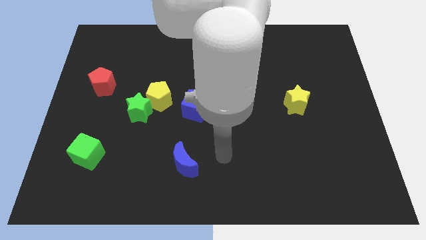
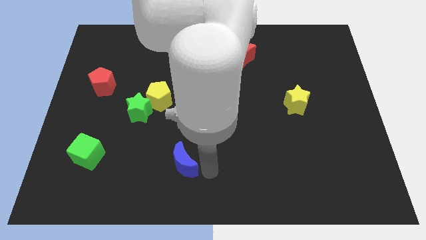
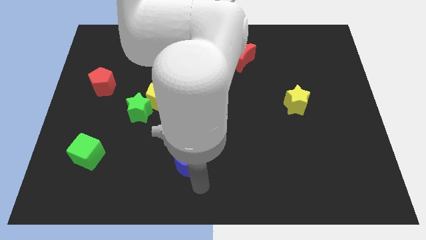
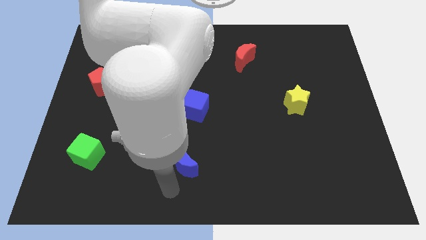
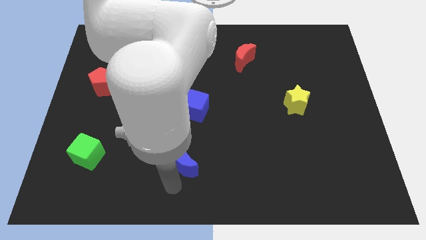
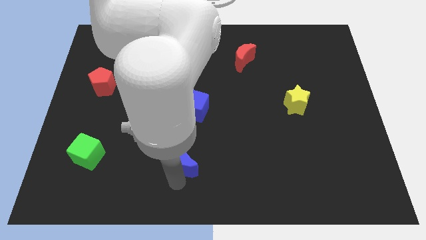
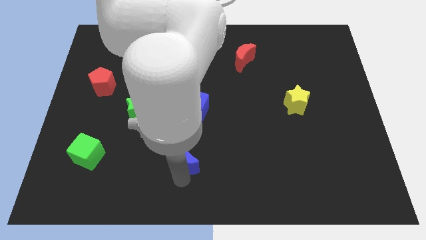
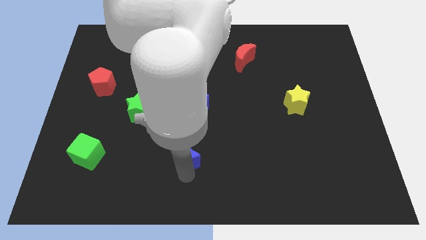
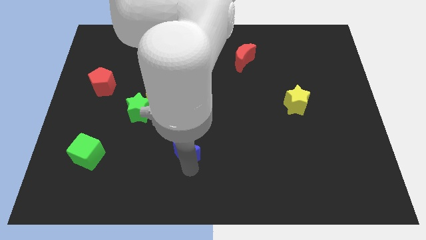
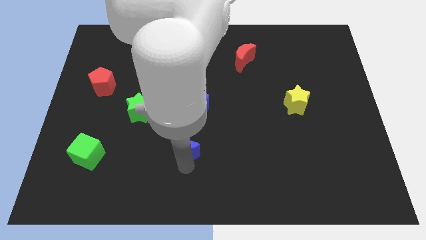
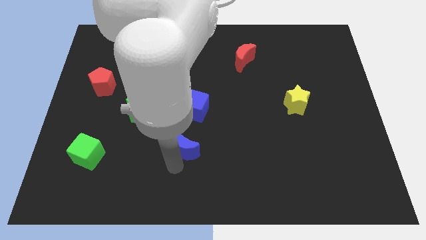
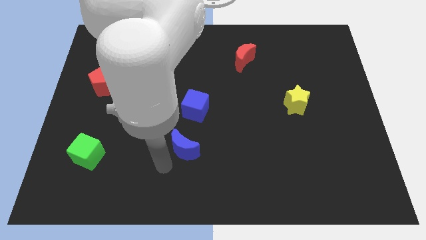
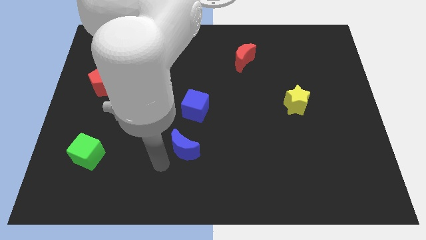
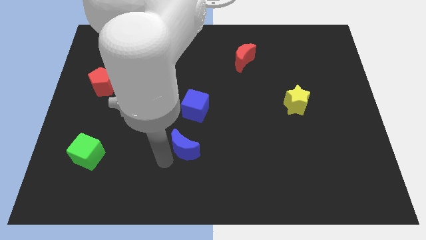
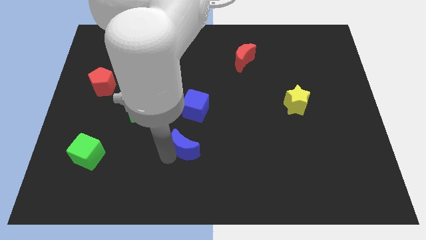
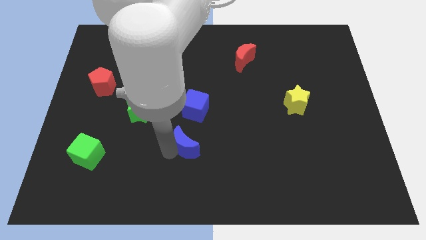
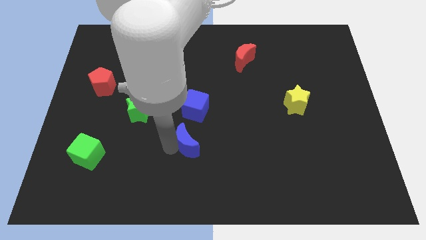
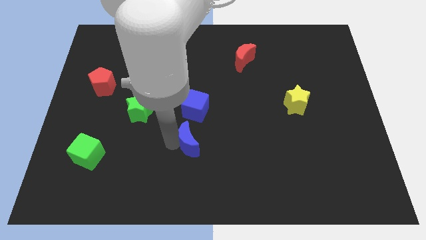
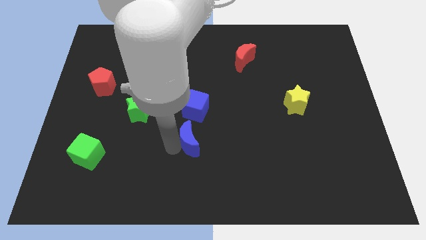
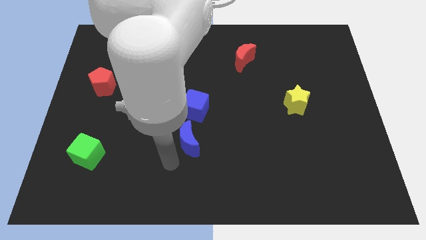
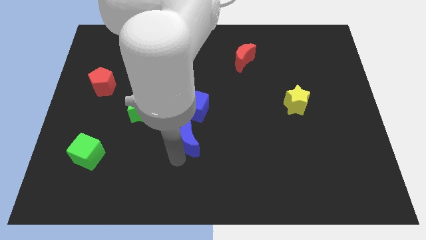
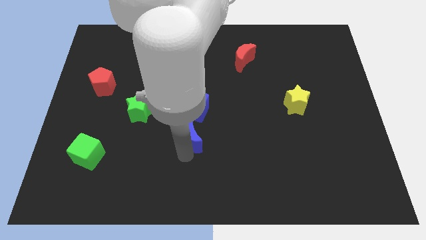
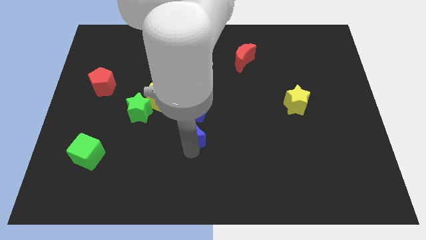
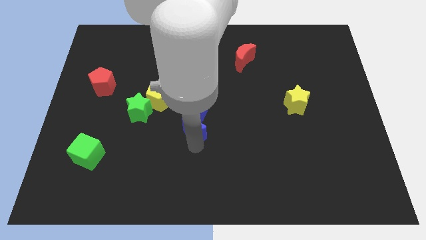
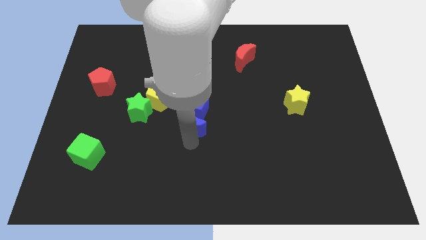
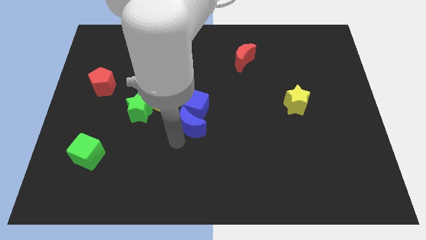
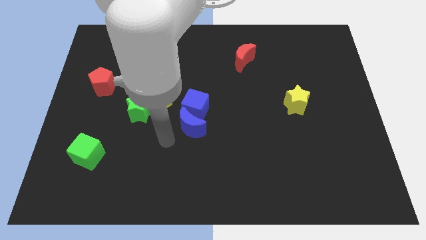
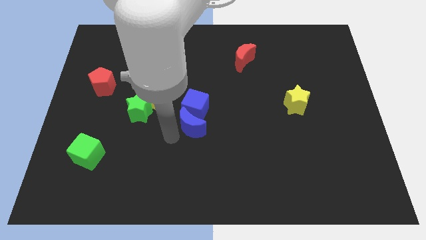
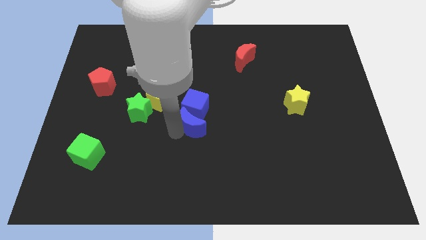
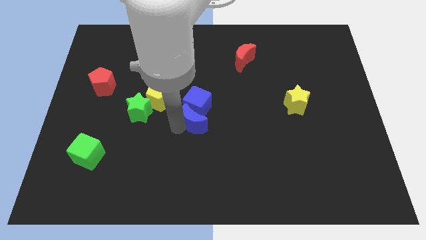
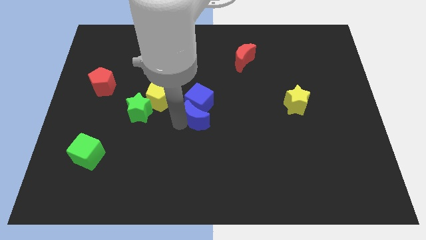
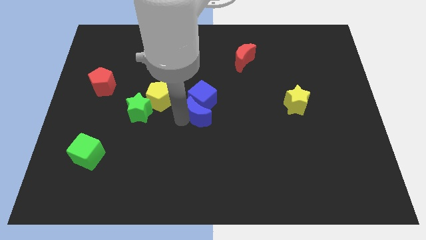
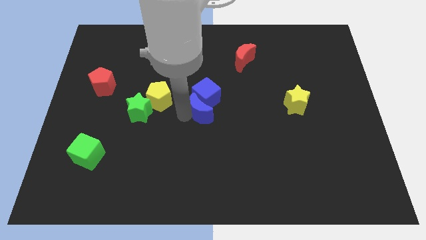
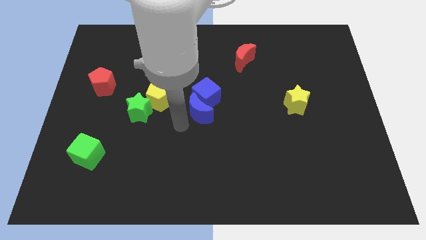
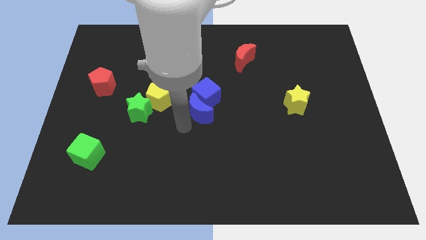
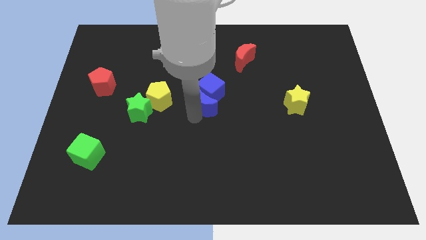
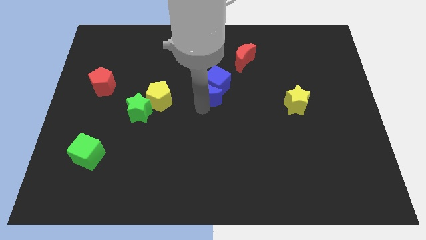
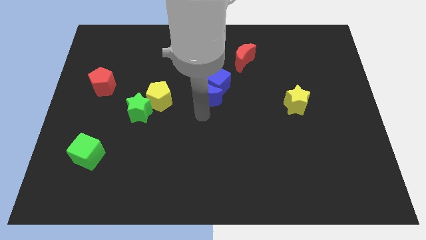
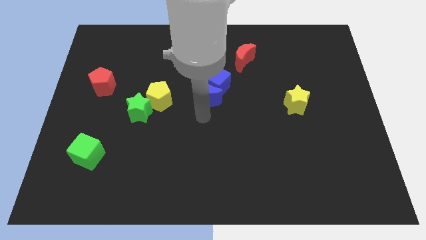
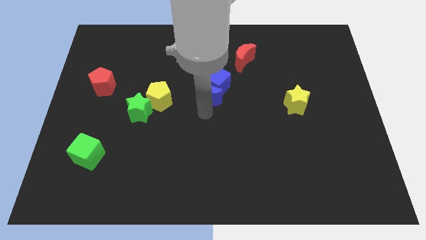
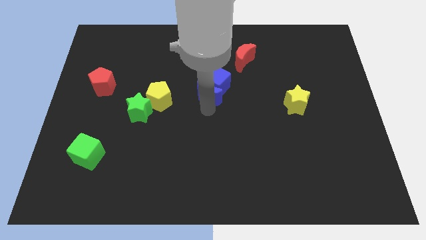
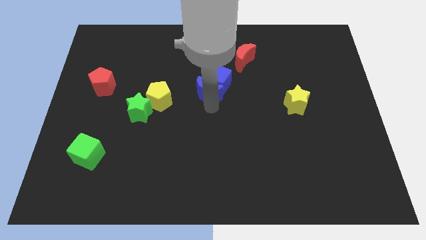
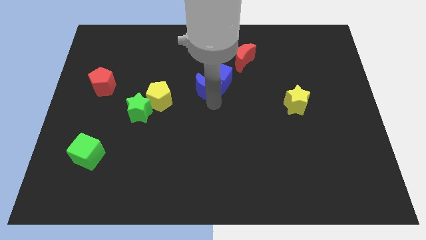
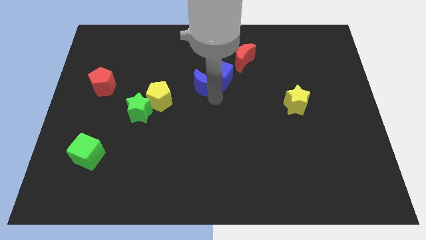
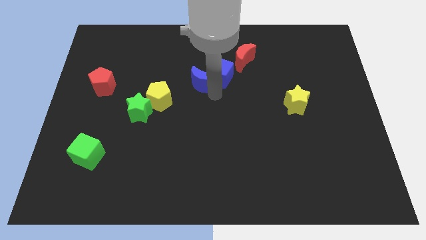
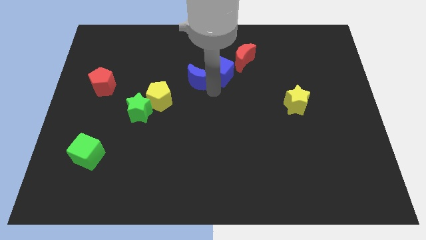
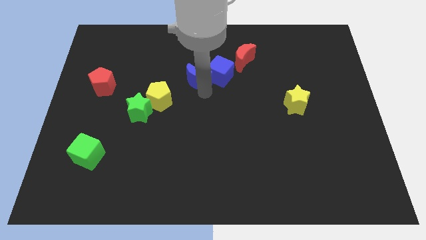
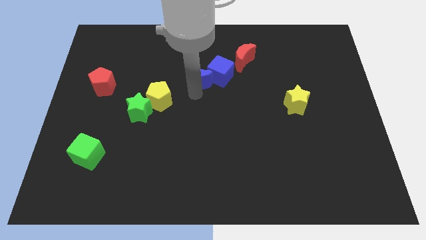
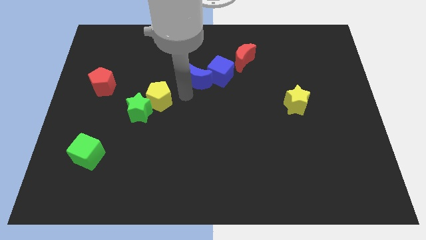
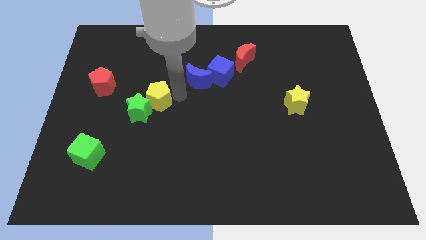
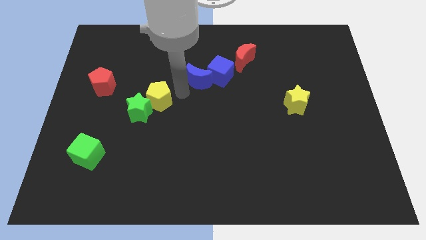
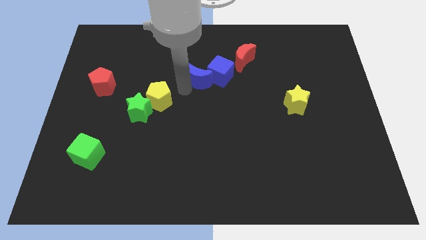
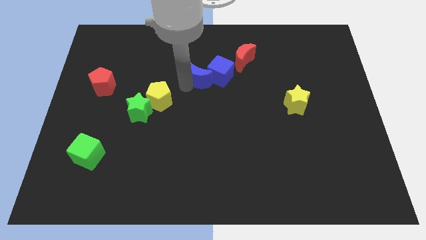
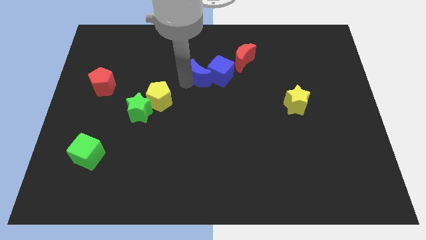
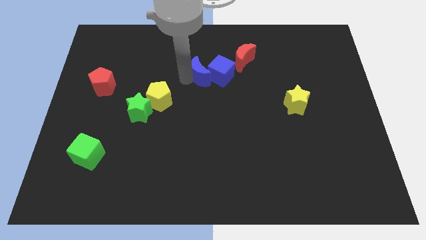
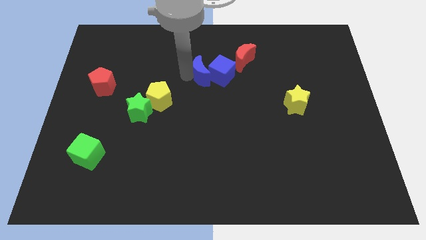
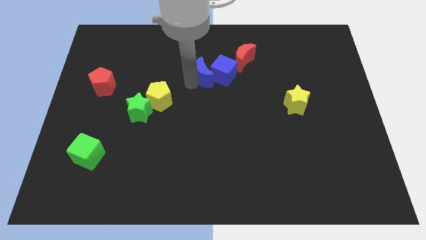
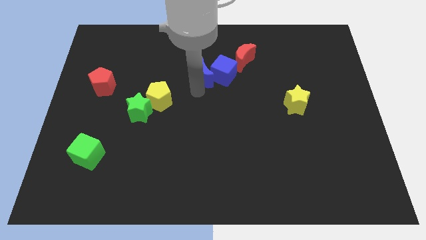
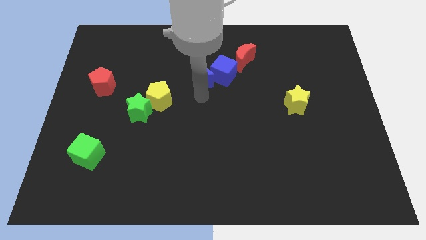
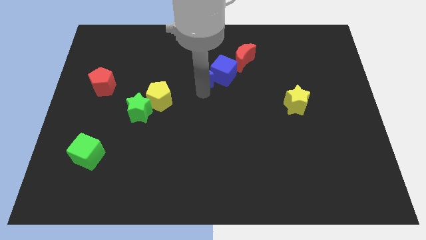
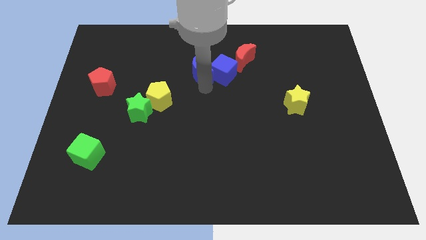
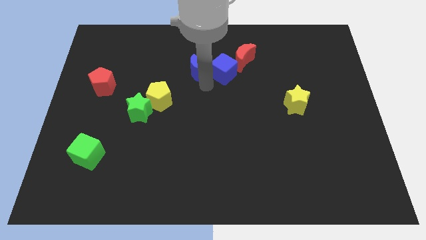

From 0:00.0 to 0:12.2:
slide the blue moon just left of the red moon

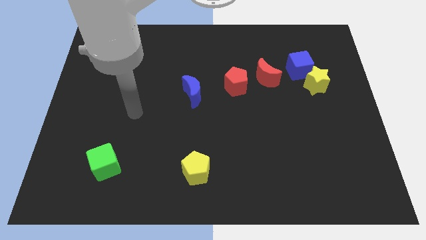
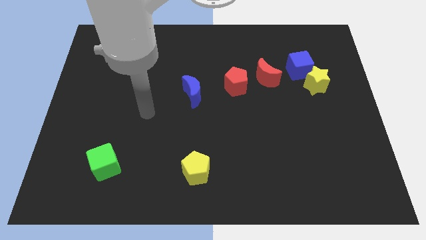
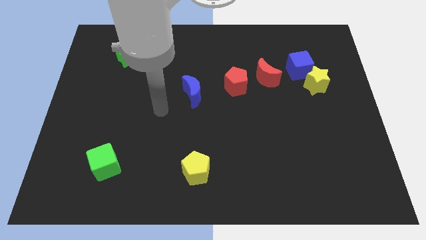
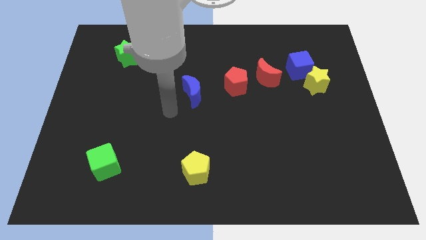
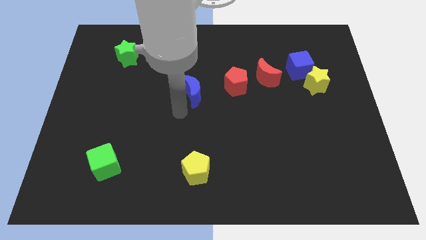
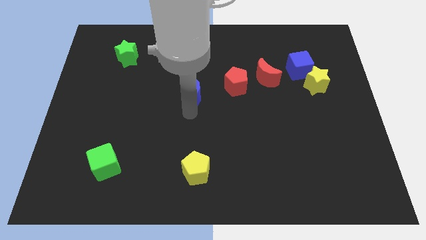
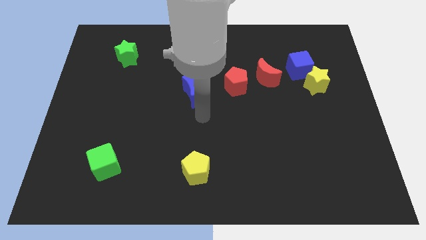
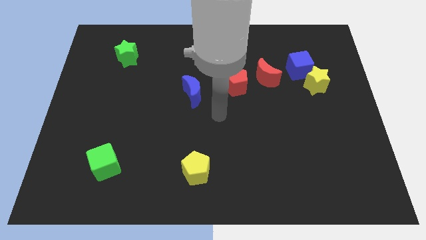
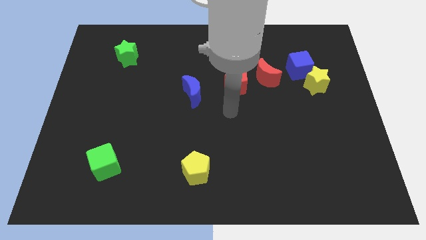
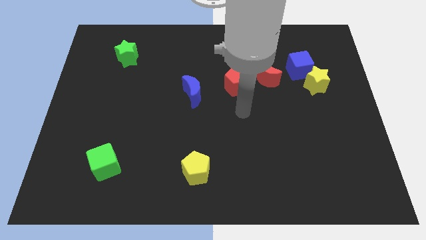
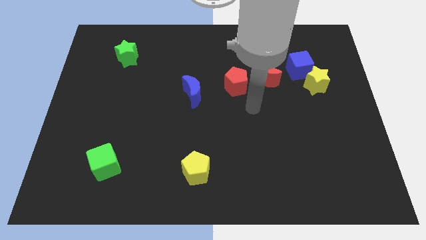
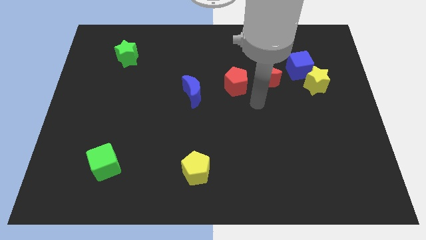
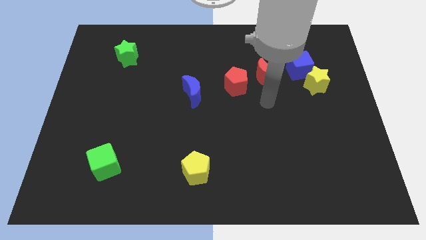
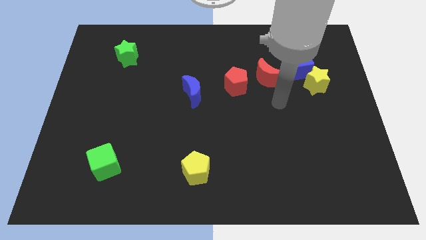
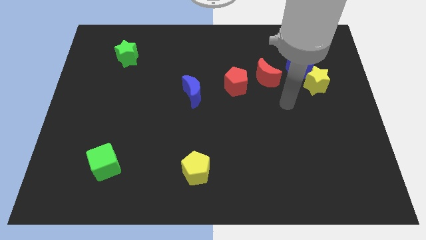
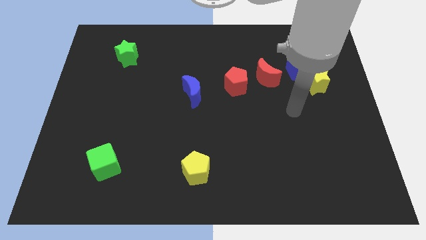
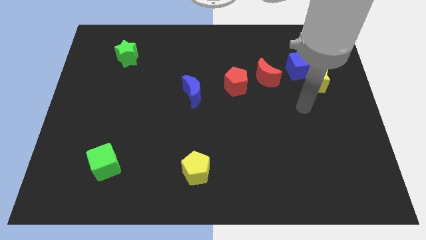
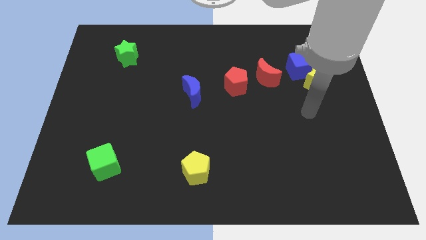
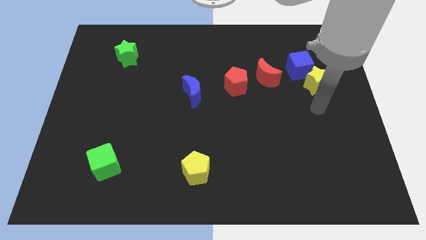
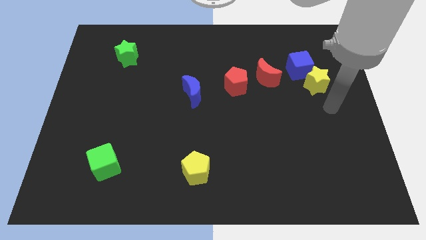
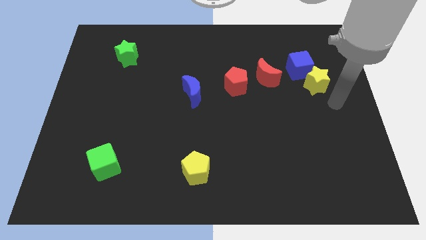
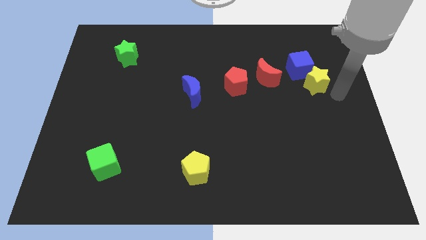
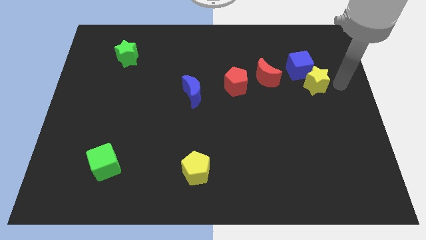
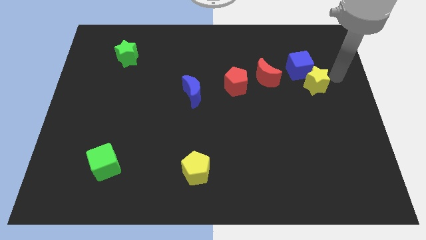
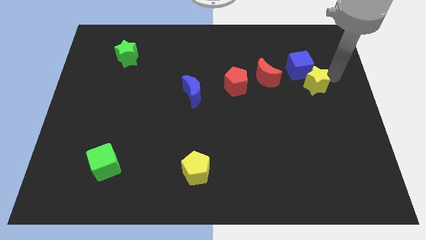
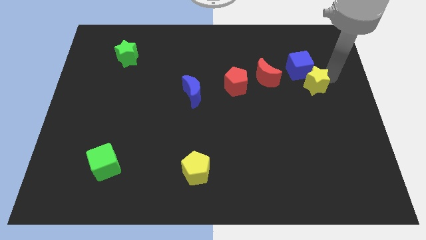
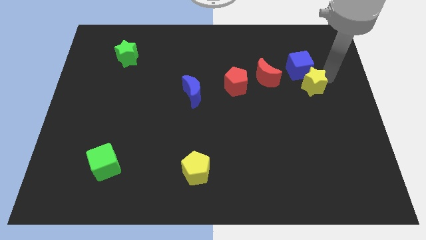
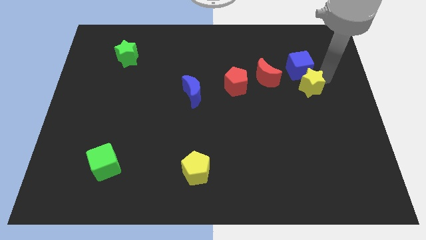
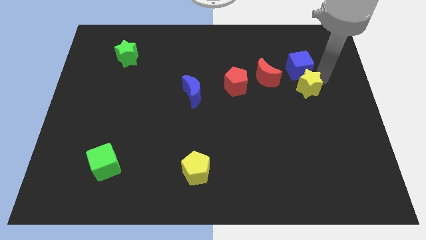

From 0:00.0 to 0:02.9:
push the yellow star to the bottom right of the red moon
